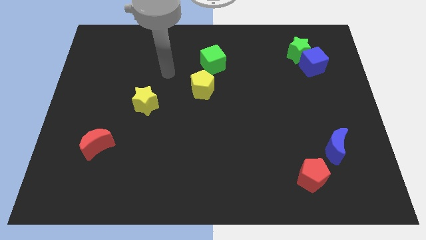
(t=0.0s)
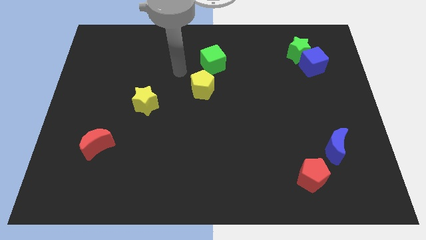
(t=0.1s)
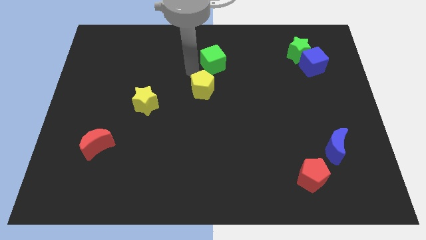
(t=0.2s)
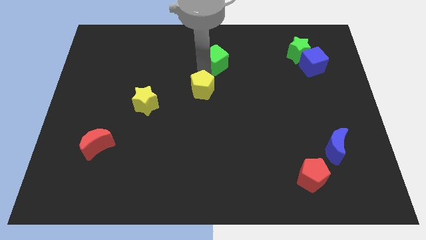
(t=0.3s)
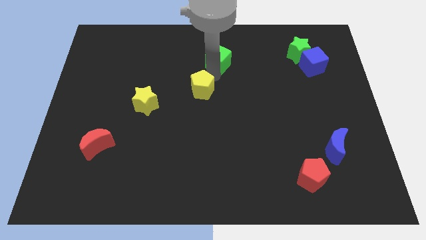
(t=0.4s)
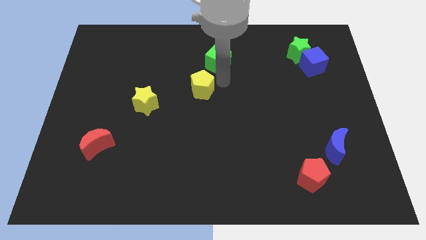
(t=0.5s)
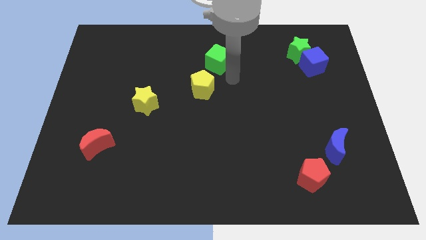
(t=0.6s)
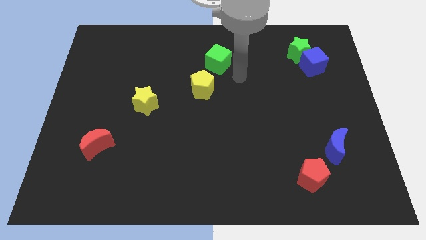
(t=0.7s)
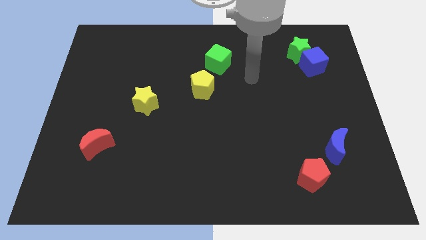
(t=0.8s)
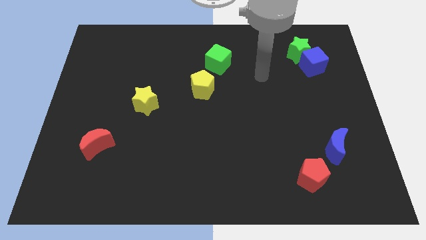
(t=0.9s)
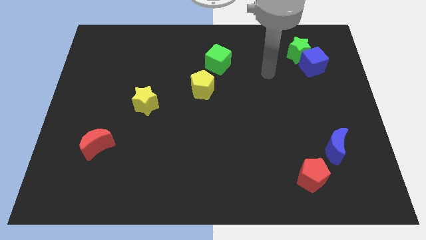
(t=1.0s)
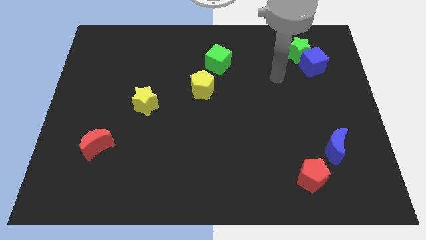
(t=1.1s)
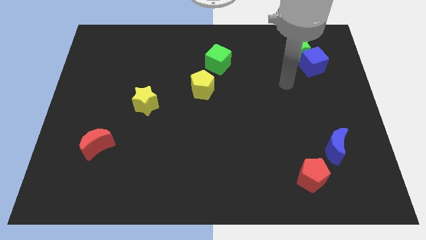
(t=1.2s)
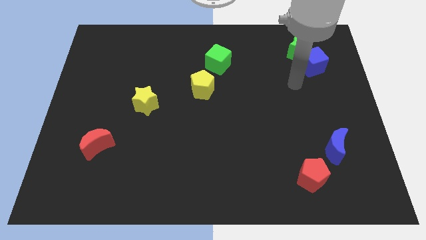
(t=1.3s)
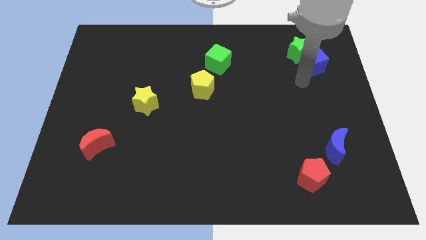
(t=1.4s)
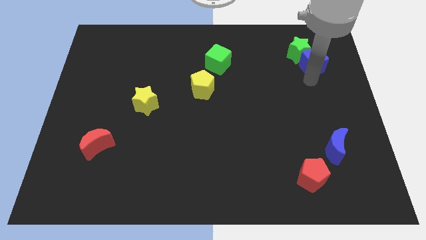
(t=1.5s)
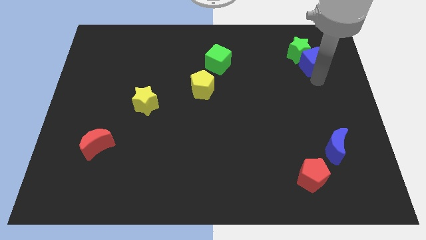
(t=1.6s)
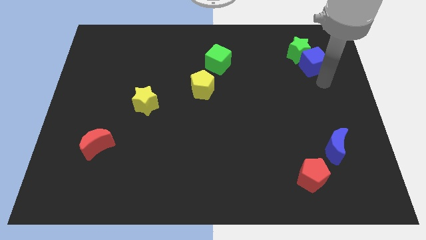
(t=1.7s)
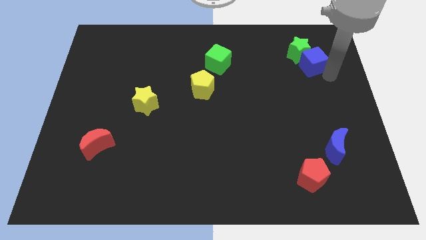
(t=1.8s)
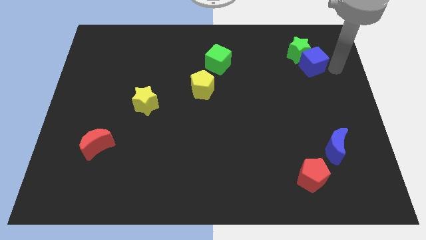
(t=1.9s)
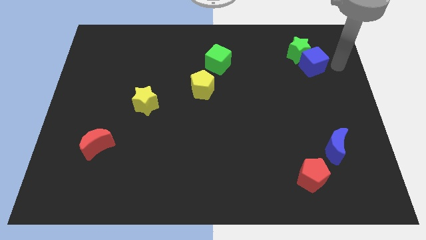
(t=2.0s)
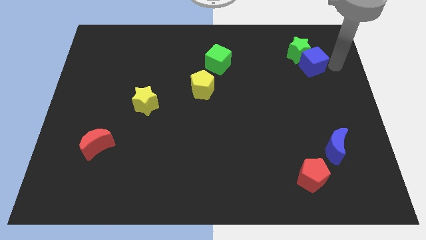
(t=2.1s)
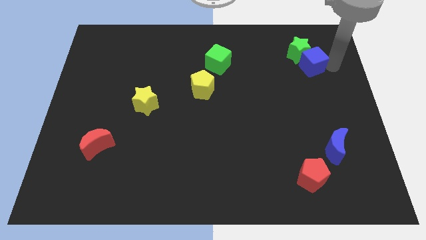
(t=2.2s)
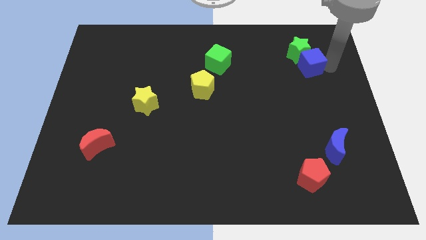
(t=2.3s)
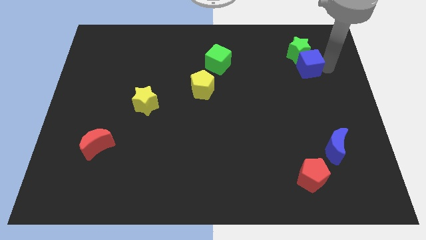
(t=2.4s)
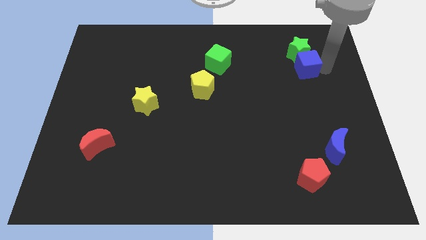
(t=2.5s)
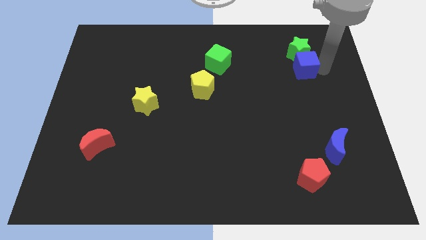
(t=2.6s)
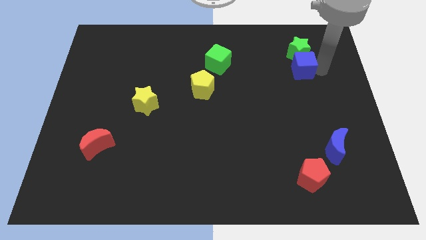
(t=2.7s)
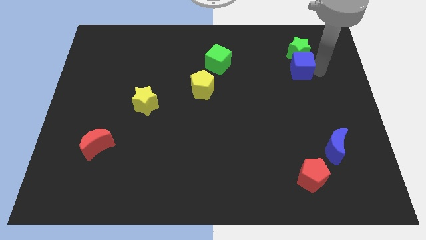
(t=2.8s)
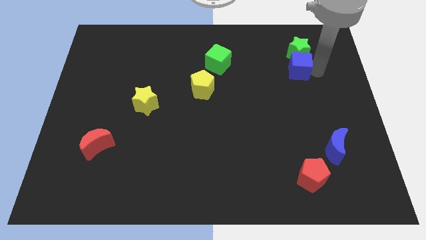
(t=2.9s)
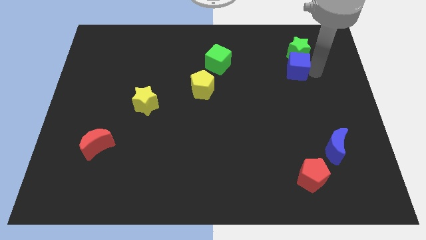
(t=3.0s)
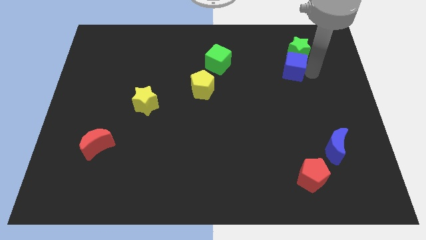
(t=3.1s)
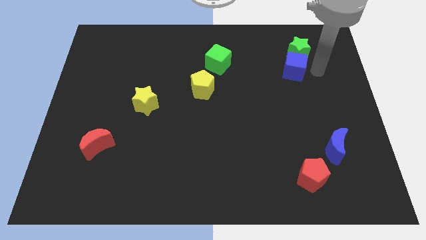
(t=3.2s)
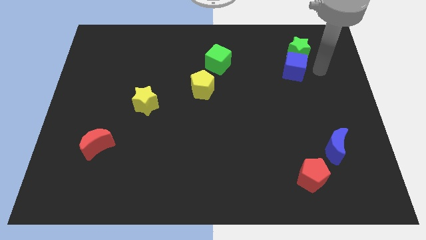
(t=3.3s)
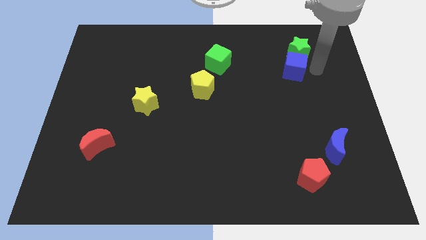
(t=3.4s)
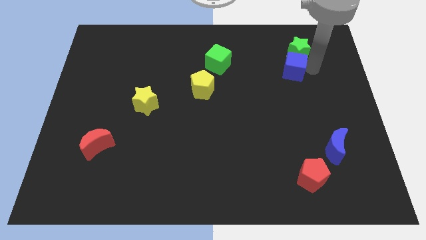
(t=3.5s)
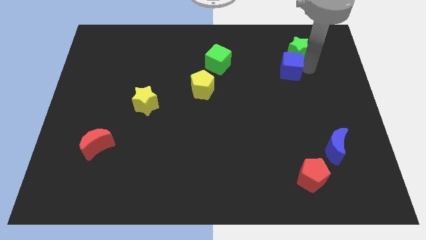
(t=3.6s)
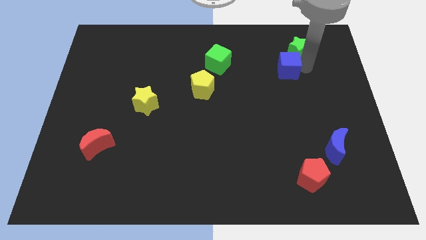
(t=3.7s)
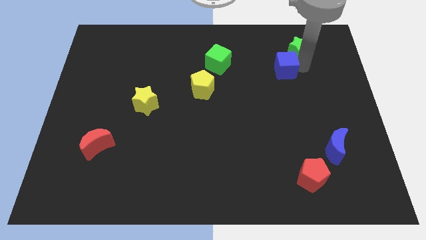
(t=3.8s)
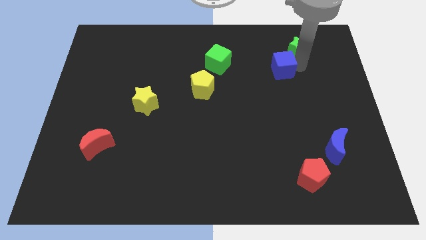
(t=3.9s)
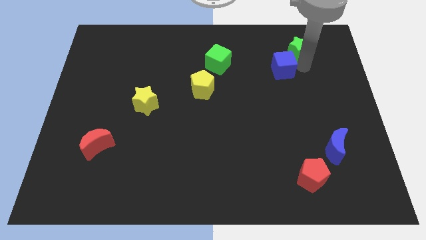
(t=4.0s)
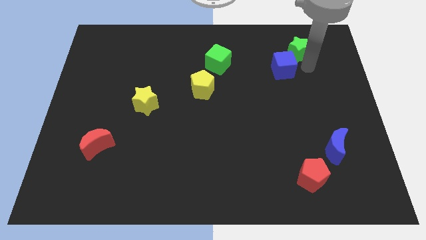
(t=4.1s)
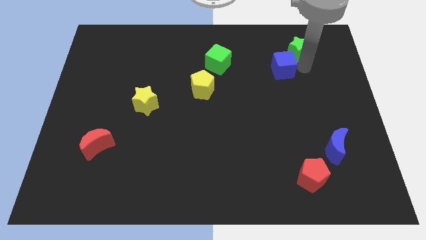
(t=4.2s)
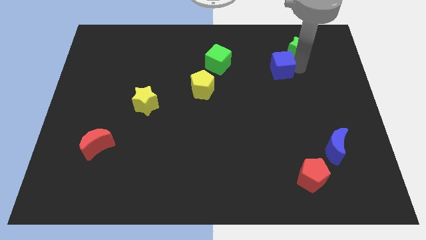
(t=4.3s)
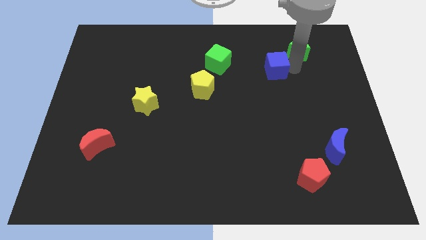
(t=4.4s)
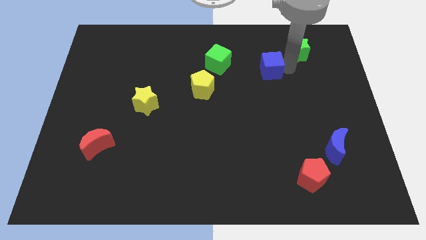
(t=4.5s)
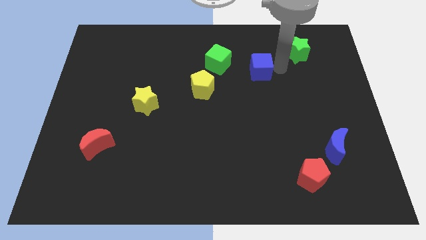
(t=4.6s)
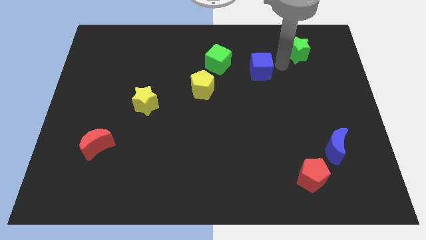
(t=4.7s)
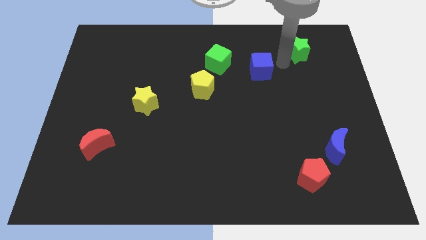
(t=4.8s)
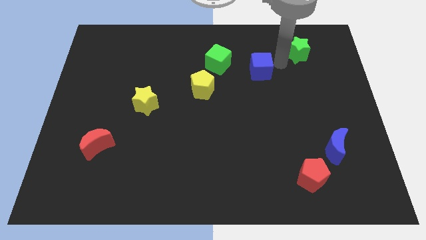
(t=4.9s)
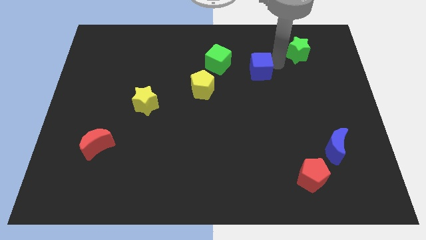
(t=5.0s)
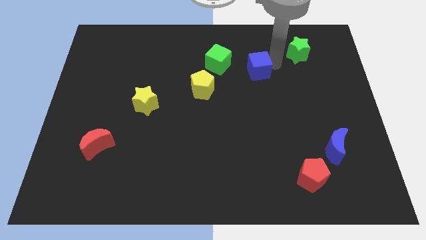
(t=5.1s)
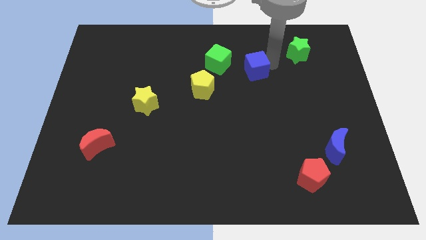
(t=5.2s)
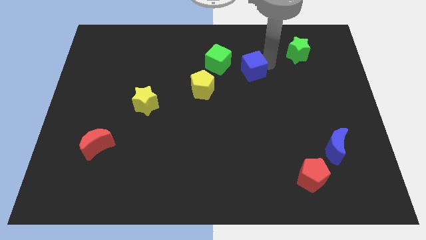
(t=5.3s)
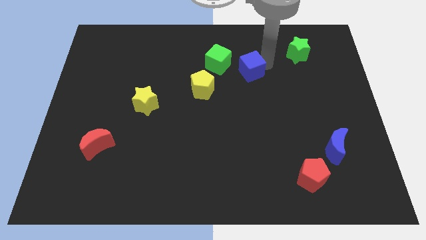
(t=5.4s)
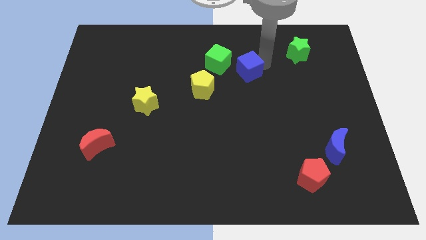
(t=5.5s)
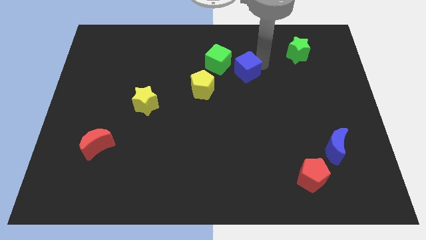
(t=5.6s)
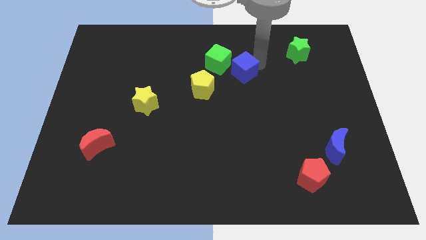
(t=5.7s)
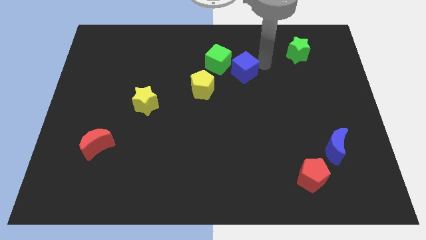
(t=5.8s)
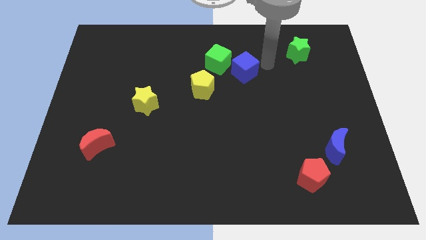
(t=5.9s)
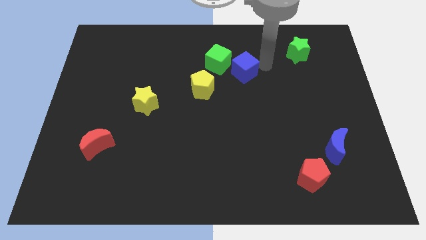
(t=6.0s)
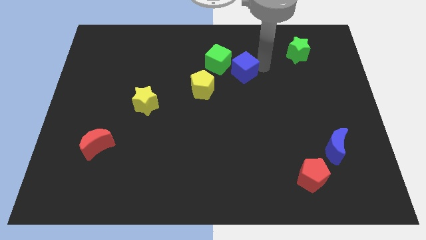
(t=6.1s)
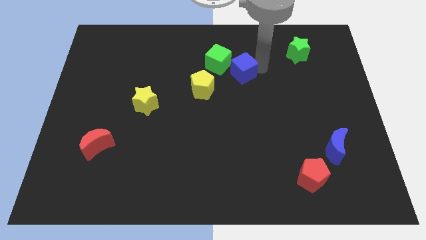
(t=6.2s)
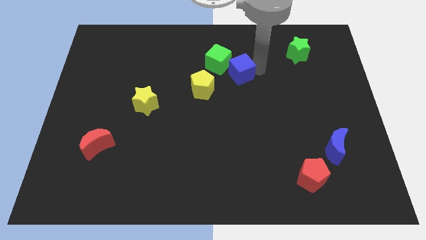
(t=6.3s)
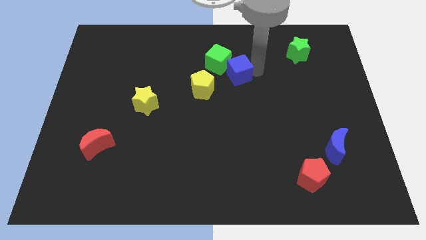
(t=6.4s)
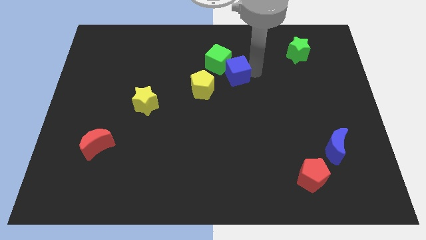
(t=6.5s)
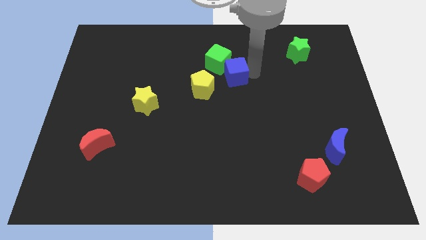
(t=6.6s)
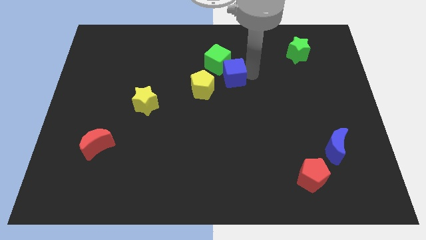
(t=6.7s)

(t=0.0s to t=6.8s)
slide the blue cube left

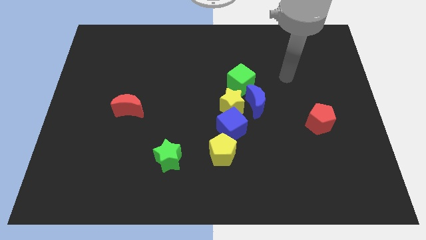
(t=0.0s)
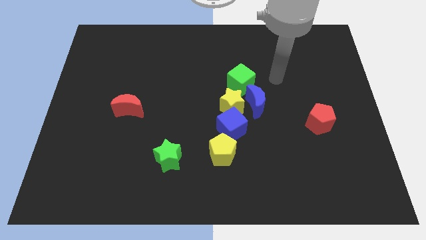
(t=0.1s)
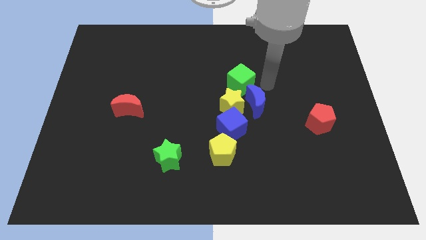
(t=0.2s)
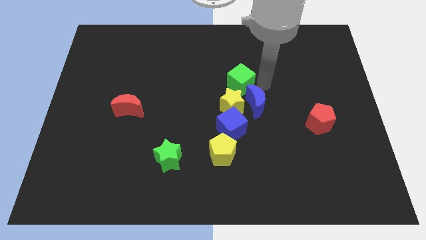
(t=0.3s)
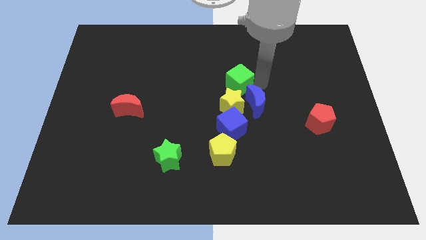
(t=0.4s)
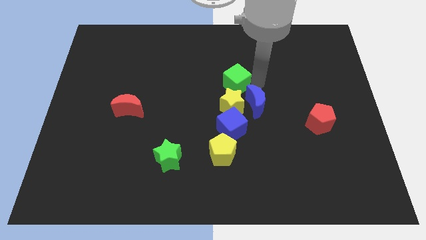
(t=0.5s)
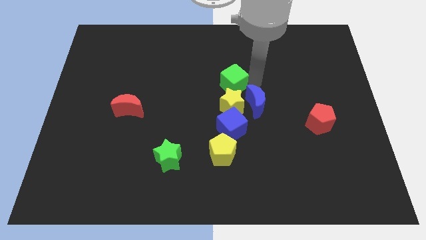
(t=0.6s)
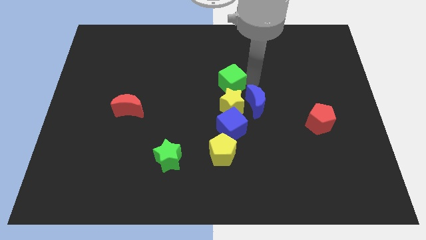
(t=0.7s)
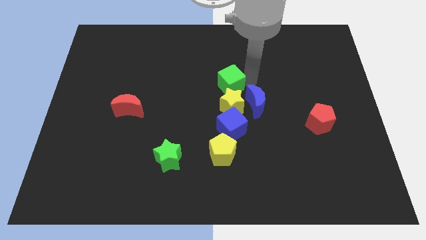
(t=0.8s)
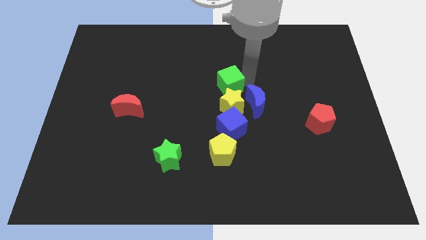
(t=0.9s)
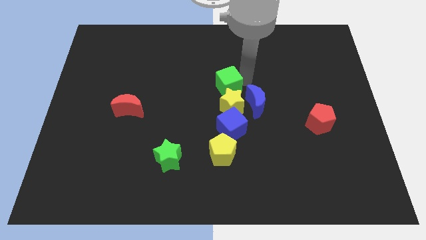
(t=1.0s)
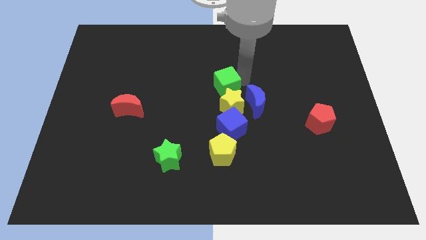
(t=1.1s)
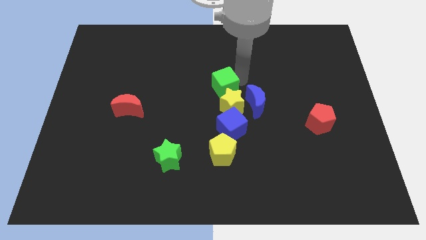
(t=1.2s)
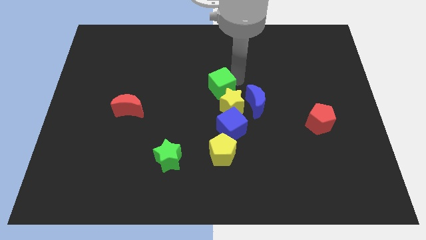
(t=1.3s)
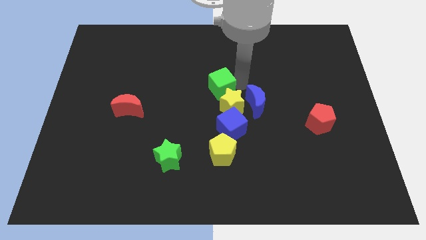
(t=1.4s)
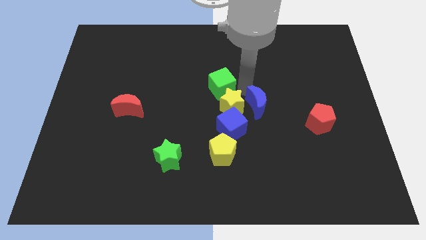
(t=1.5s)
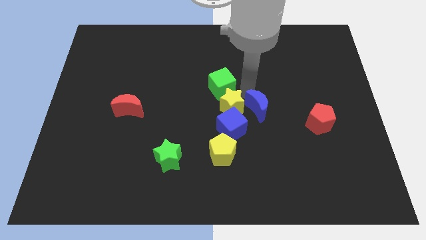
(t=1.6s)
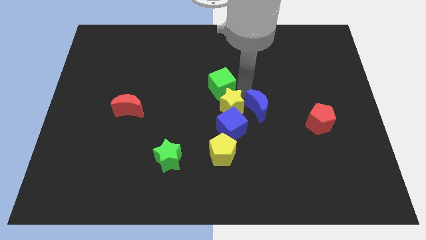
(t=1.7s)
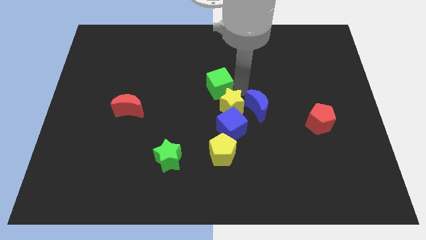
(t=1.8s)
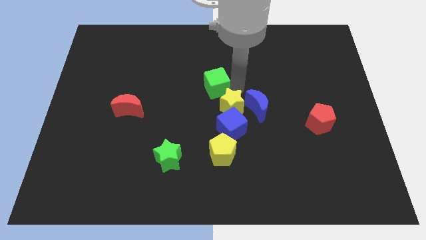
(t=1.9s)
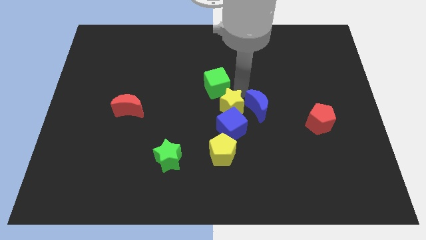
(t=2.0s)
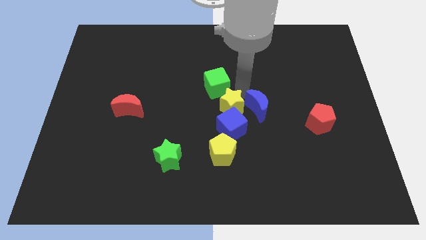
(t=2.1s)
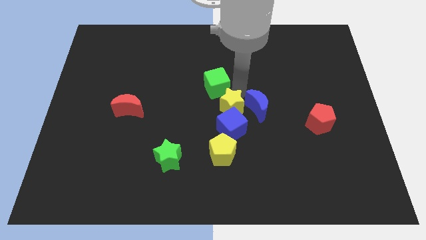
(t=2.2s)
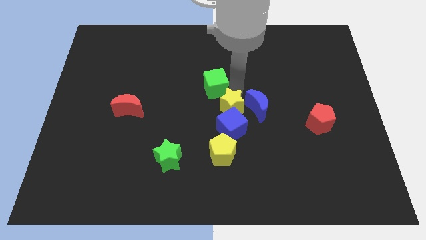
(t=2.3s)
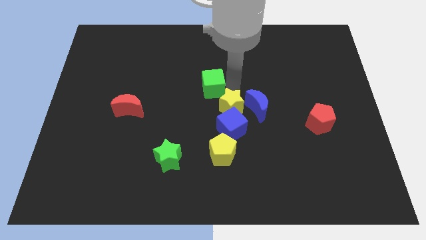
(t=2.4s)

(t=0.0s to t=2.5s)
slightly push the green cube left
